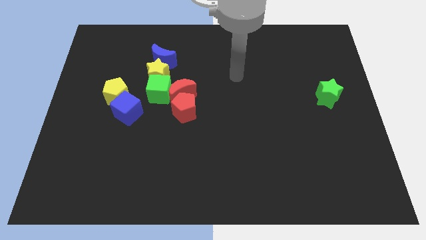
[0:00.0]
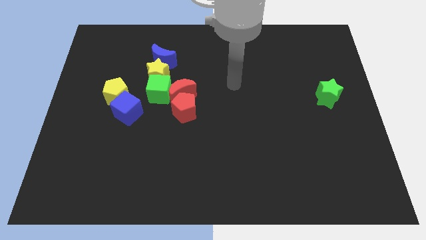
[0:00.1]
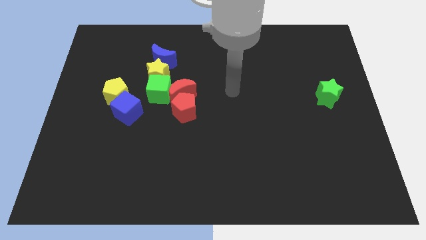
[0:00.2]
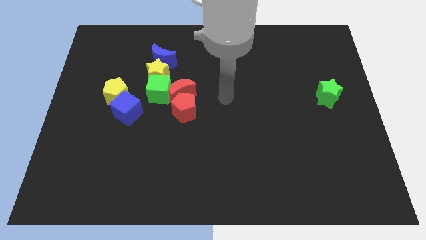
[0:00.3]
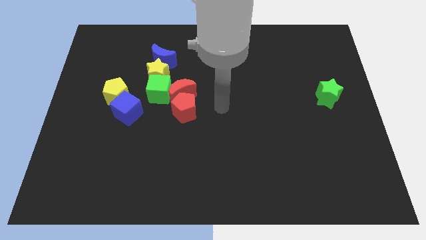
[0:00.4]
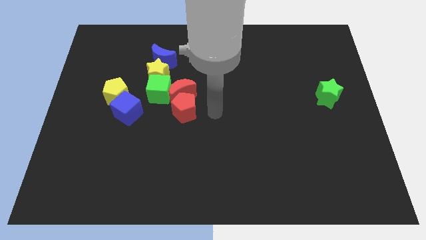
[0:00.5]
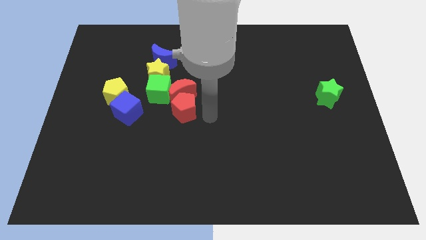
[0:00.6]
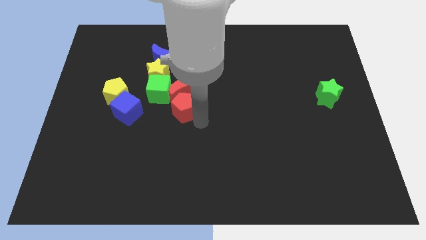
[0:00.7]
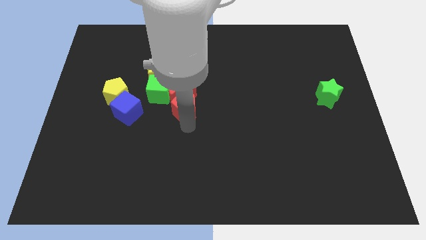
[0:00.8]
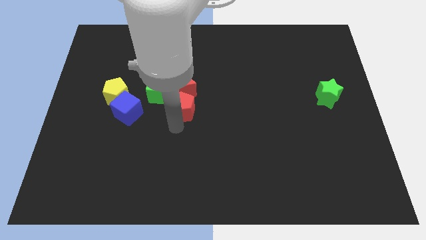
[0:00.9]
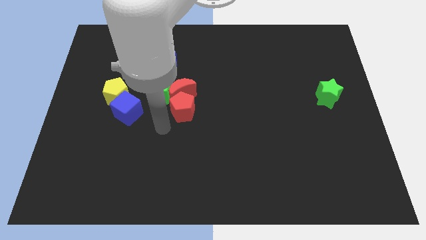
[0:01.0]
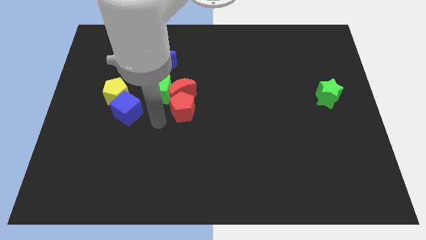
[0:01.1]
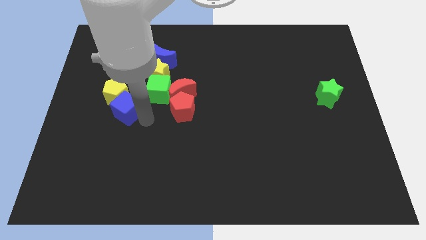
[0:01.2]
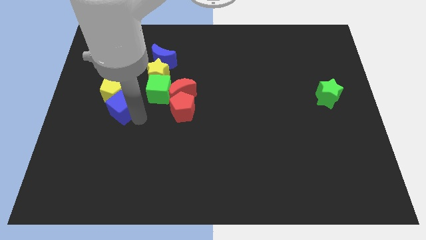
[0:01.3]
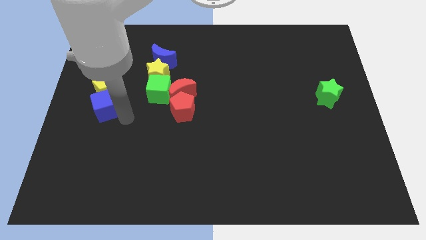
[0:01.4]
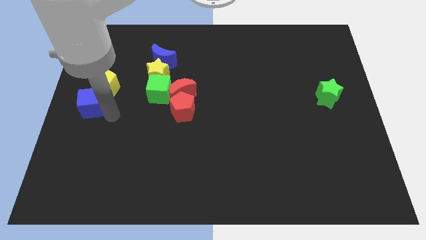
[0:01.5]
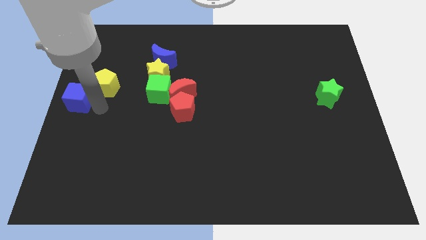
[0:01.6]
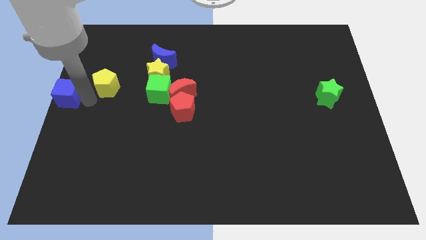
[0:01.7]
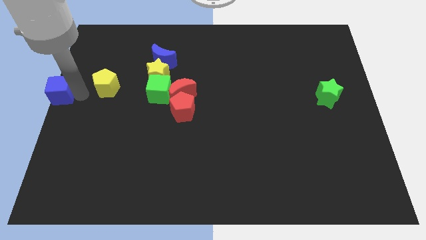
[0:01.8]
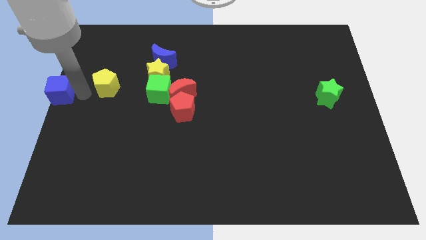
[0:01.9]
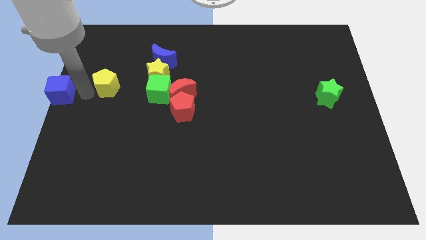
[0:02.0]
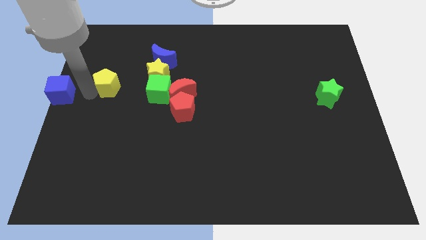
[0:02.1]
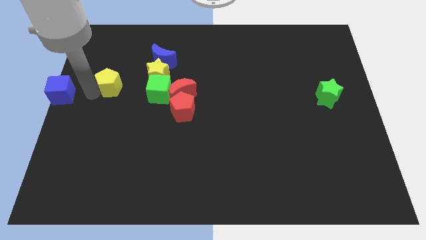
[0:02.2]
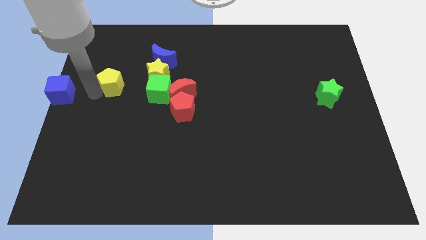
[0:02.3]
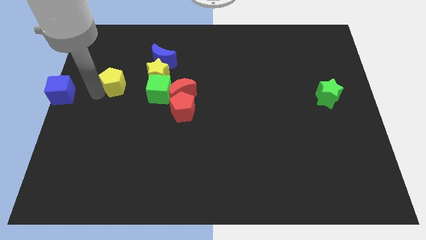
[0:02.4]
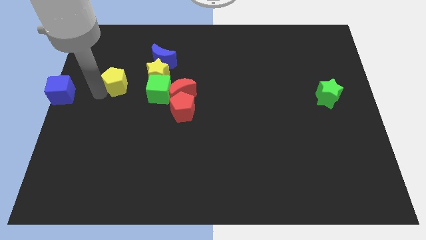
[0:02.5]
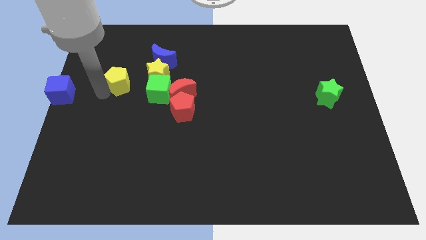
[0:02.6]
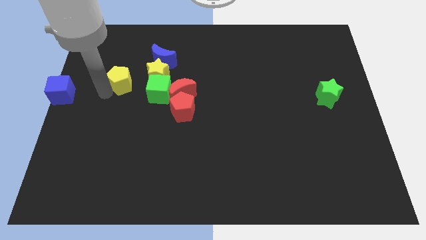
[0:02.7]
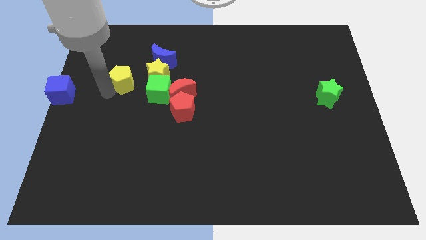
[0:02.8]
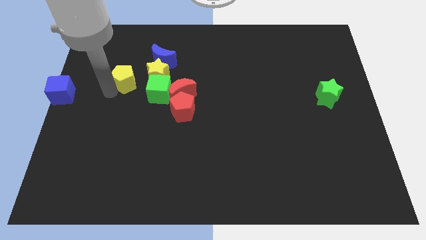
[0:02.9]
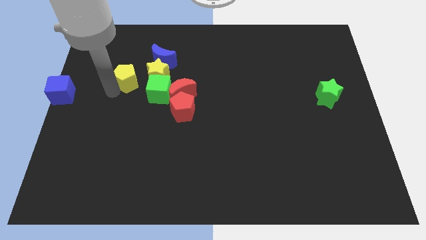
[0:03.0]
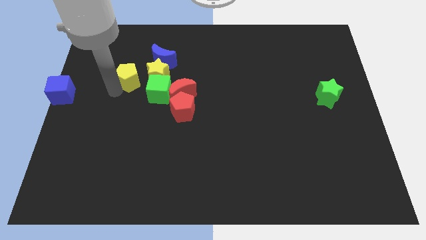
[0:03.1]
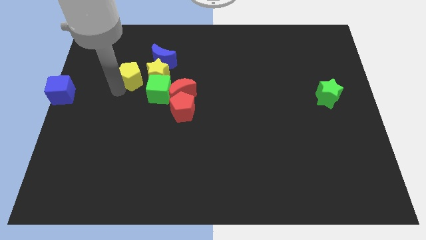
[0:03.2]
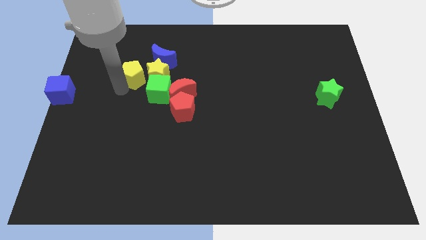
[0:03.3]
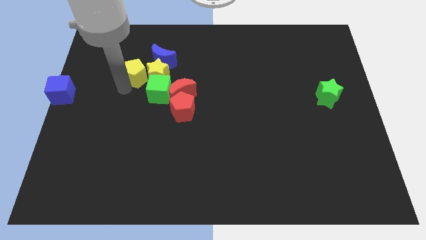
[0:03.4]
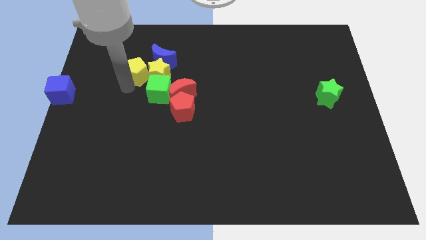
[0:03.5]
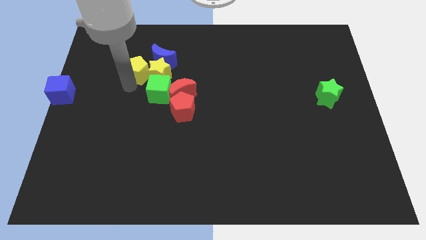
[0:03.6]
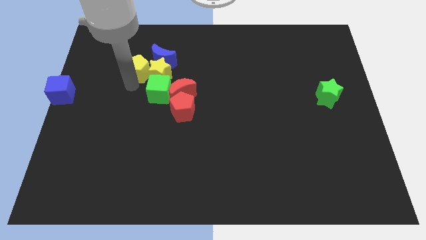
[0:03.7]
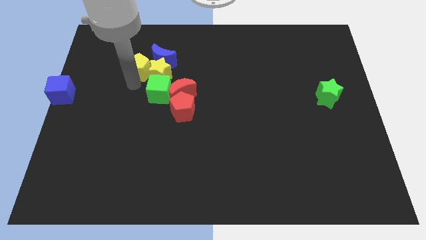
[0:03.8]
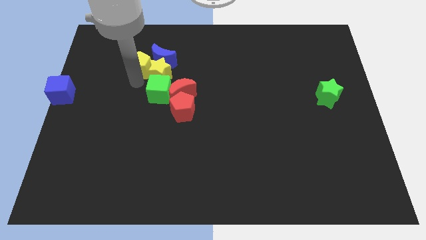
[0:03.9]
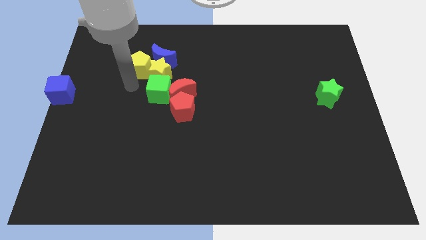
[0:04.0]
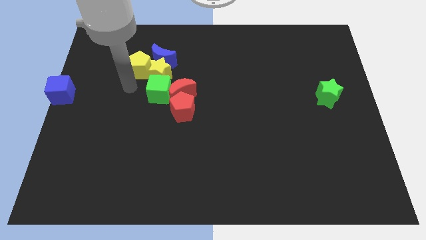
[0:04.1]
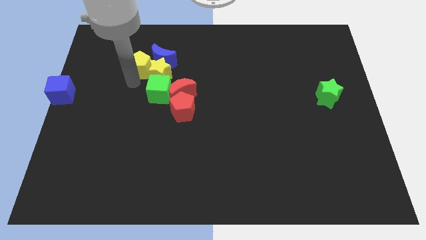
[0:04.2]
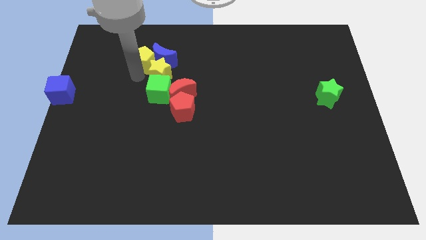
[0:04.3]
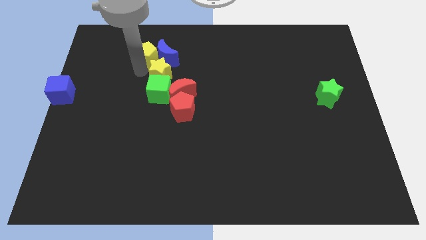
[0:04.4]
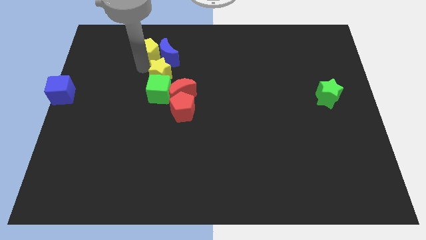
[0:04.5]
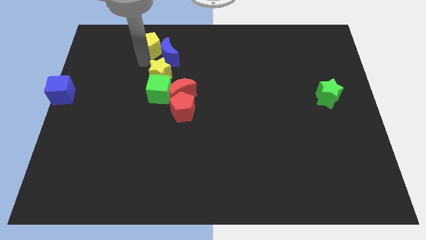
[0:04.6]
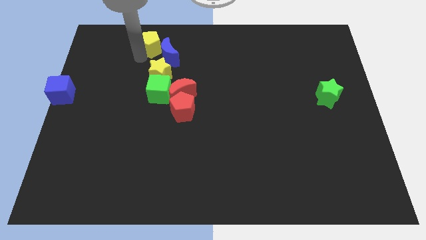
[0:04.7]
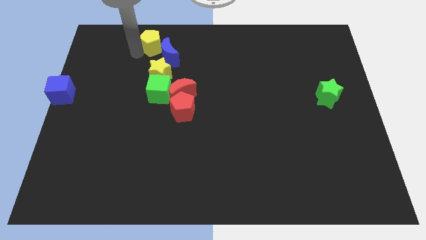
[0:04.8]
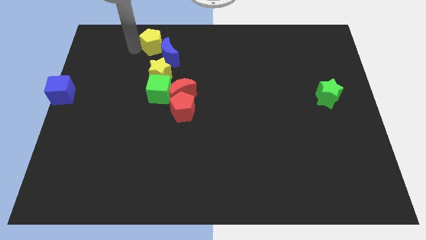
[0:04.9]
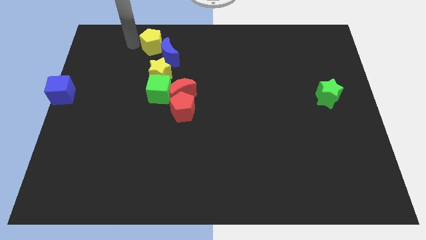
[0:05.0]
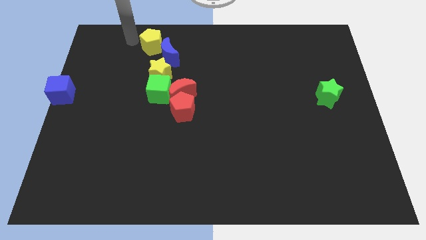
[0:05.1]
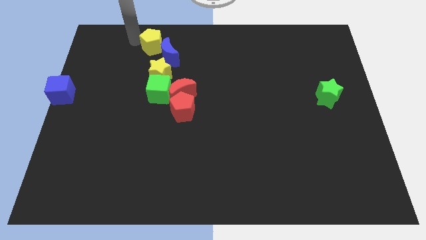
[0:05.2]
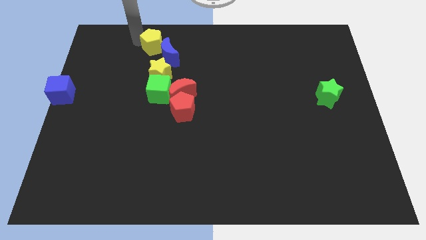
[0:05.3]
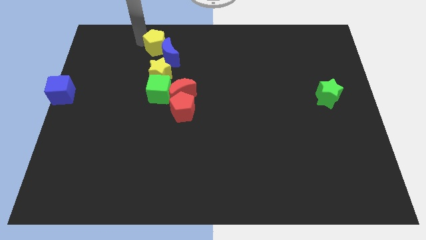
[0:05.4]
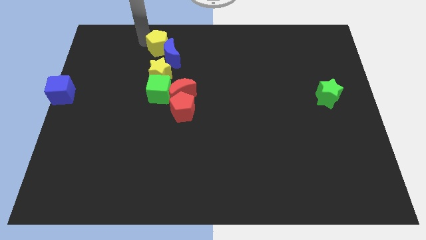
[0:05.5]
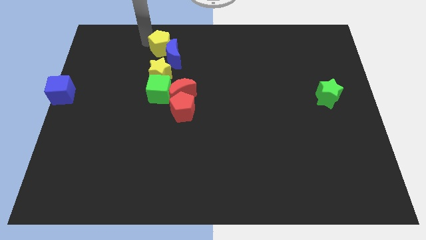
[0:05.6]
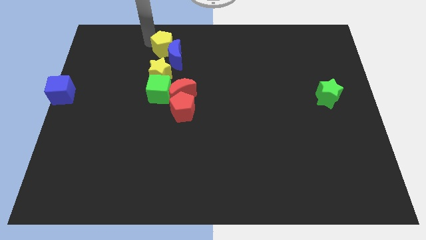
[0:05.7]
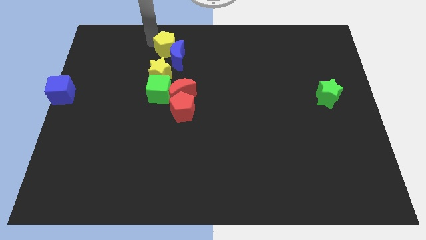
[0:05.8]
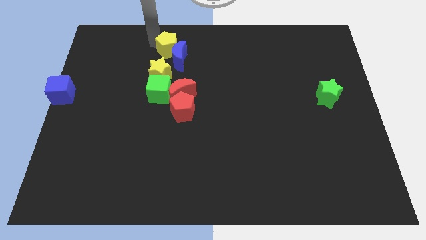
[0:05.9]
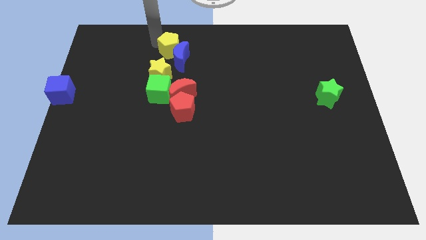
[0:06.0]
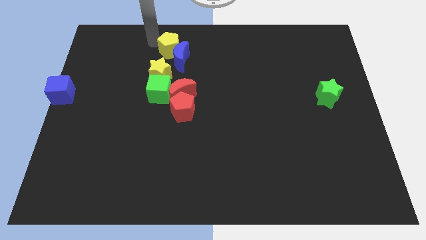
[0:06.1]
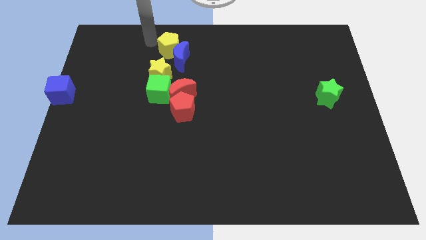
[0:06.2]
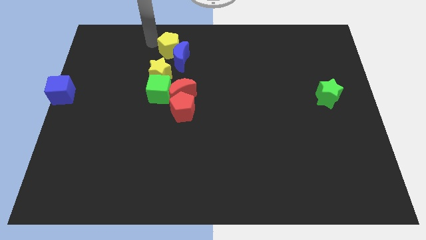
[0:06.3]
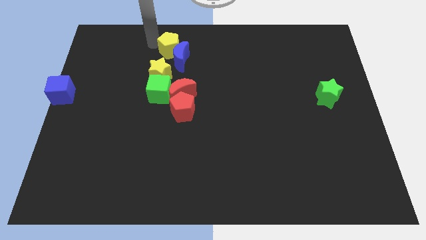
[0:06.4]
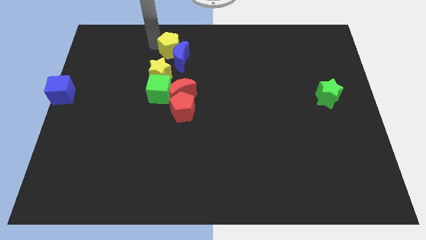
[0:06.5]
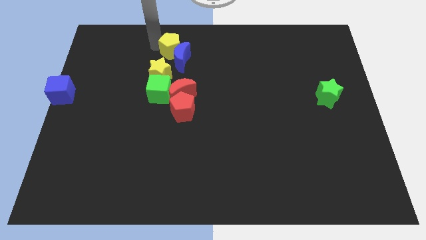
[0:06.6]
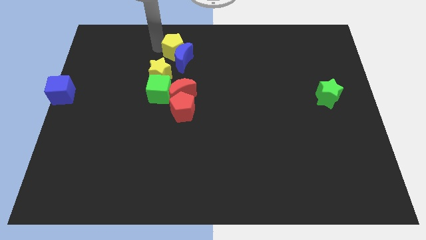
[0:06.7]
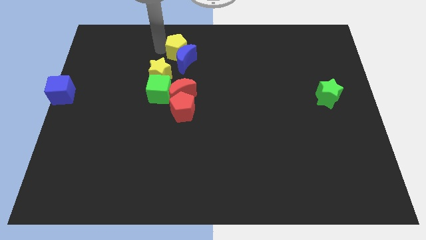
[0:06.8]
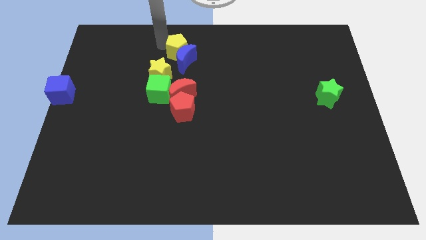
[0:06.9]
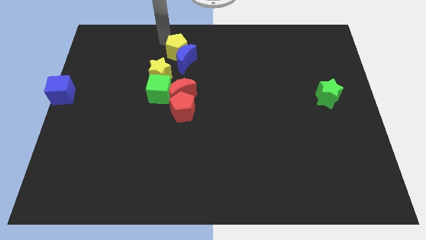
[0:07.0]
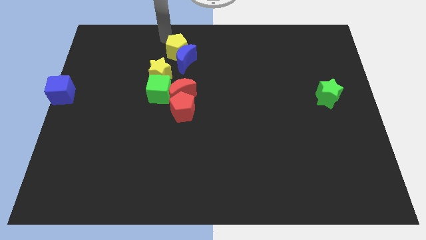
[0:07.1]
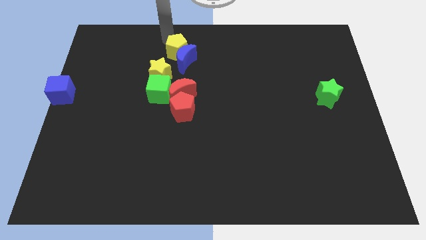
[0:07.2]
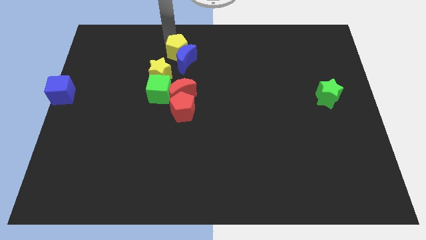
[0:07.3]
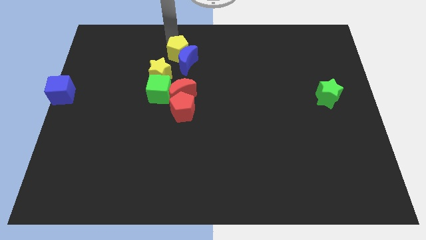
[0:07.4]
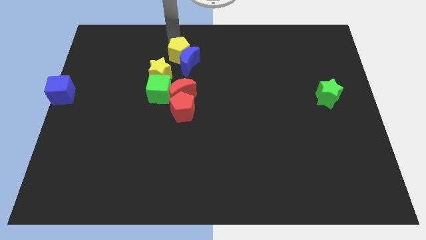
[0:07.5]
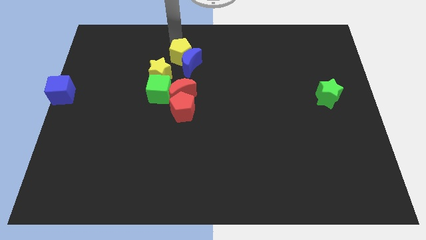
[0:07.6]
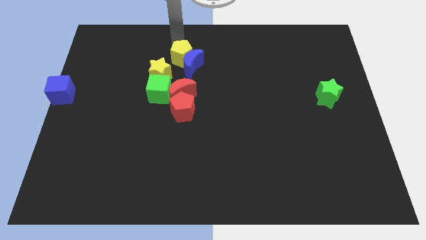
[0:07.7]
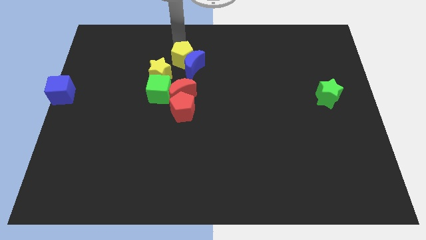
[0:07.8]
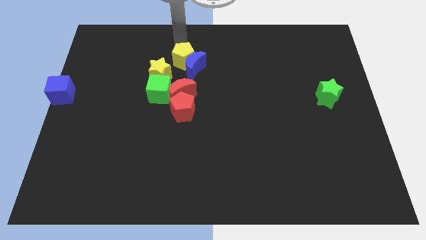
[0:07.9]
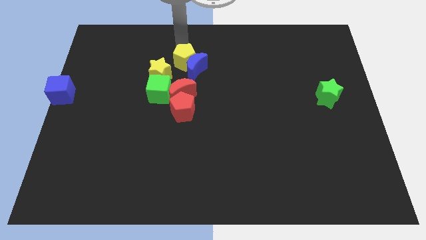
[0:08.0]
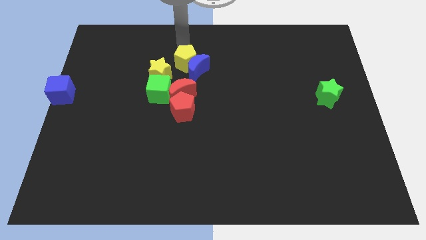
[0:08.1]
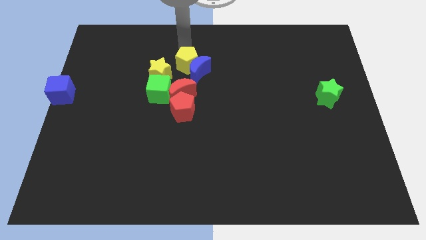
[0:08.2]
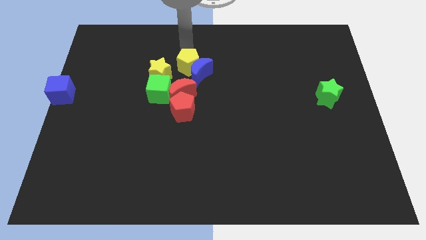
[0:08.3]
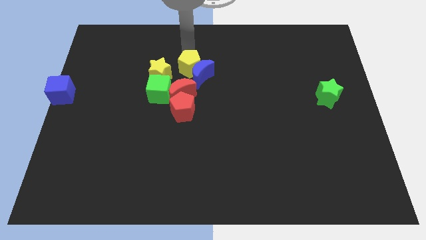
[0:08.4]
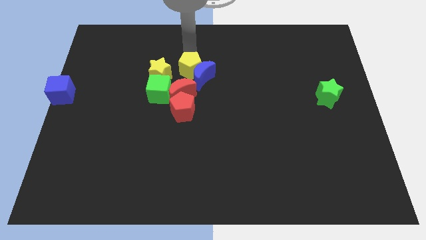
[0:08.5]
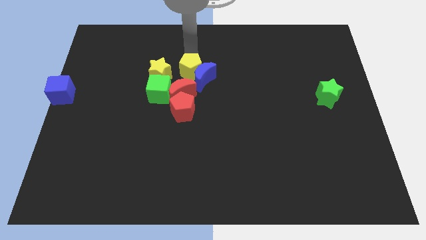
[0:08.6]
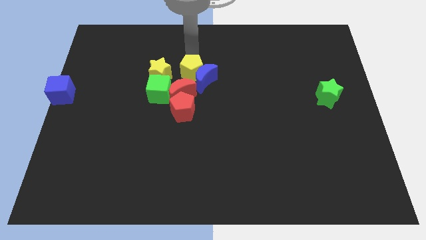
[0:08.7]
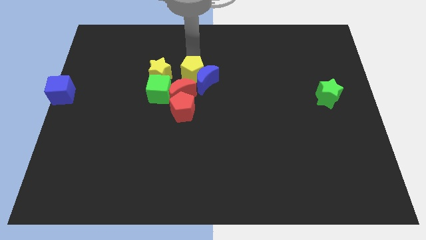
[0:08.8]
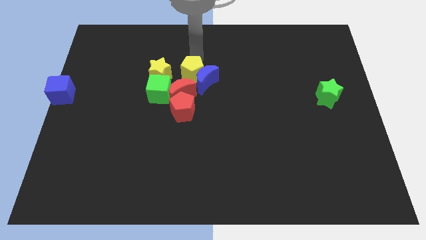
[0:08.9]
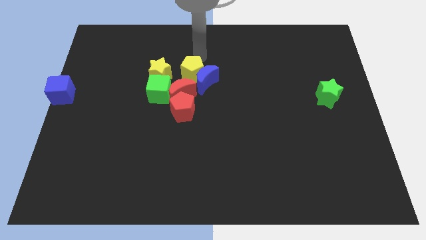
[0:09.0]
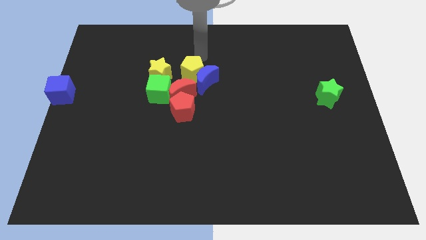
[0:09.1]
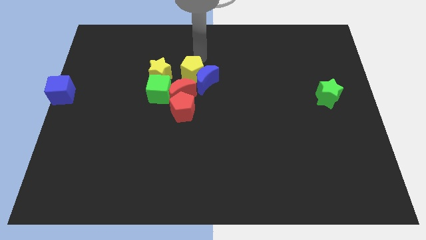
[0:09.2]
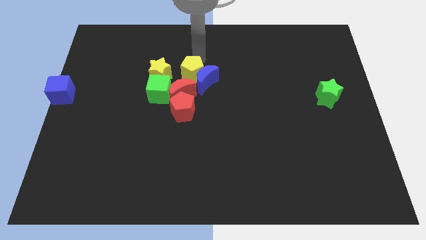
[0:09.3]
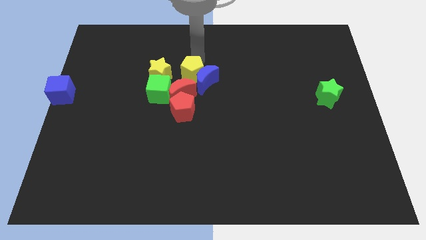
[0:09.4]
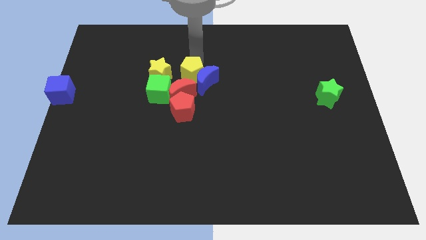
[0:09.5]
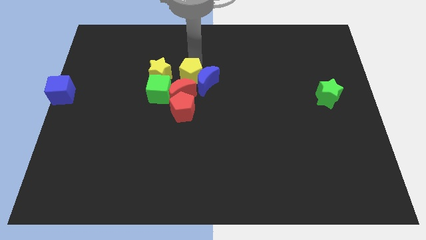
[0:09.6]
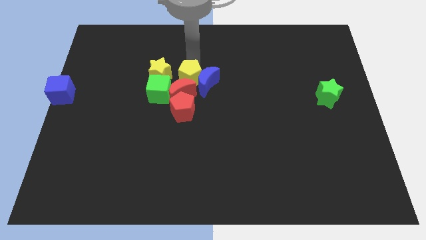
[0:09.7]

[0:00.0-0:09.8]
move the yellow pentagon to the red moon
